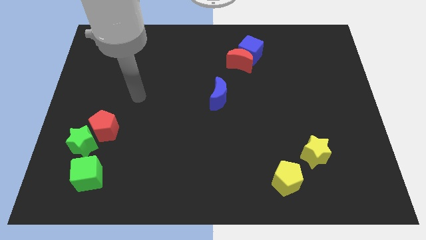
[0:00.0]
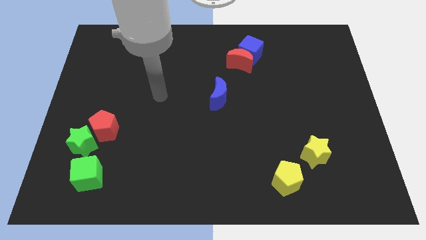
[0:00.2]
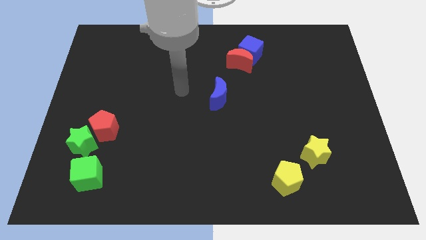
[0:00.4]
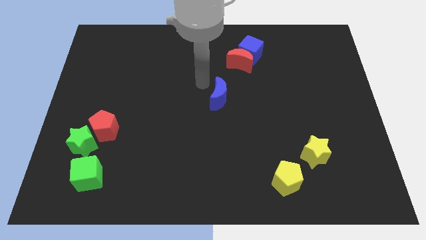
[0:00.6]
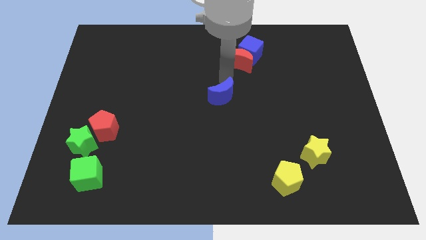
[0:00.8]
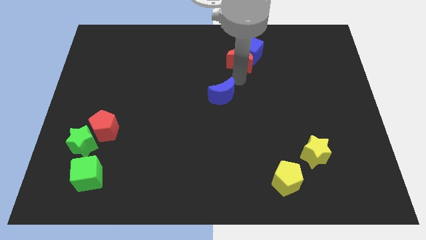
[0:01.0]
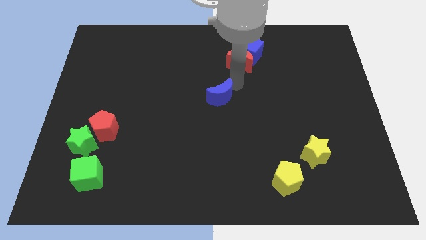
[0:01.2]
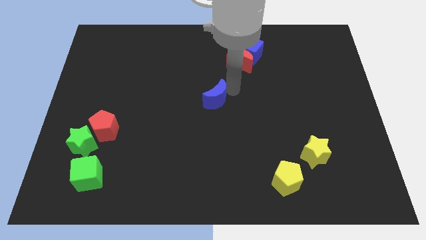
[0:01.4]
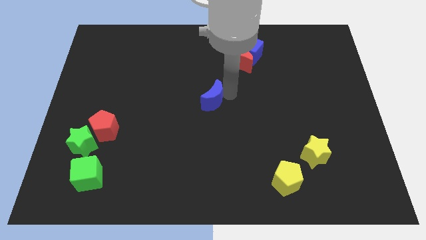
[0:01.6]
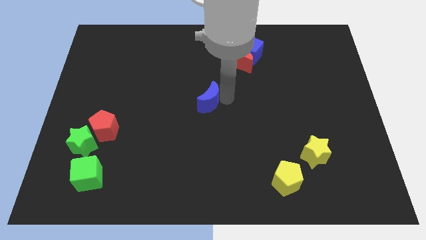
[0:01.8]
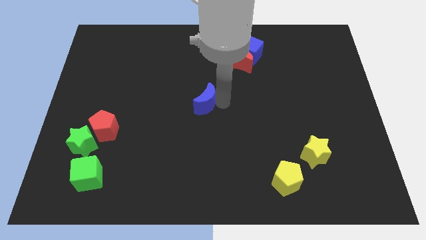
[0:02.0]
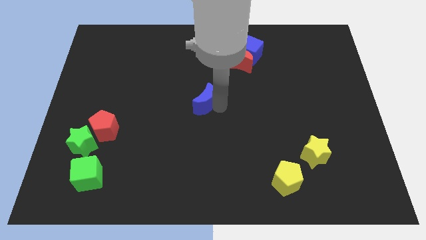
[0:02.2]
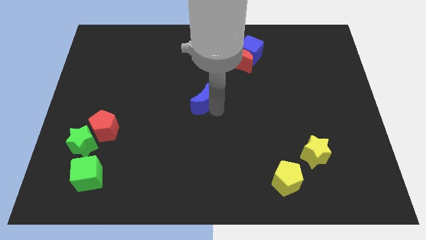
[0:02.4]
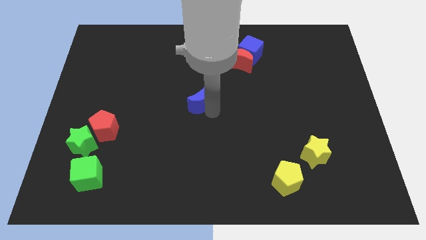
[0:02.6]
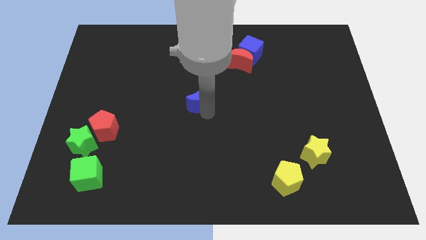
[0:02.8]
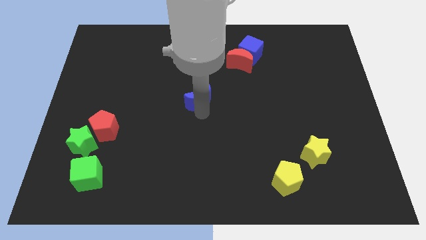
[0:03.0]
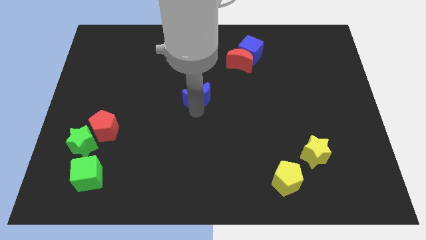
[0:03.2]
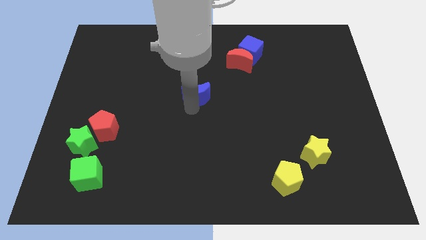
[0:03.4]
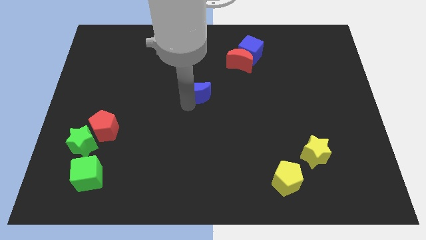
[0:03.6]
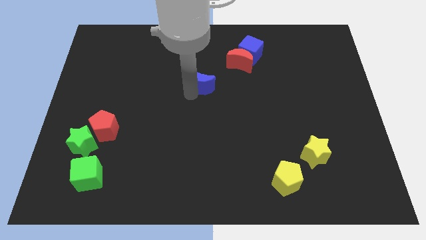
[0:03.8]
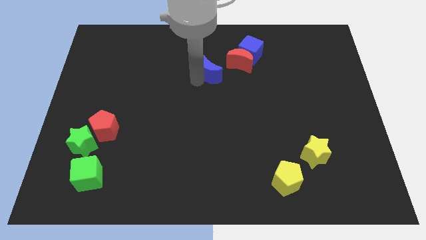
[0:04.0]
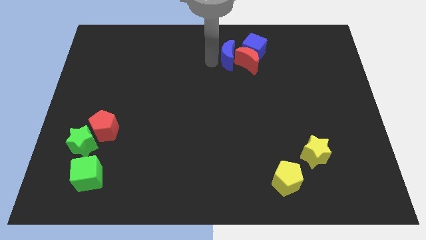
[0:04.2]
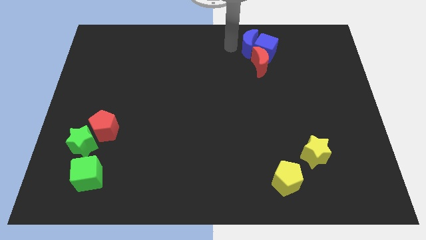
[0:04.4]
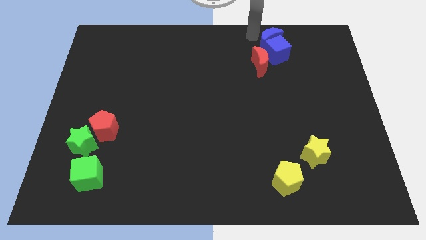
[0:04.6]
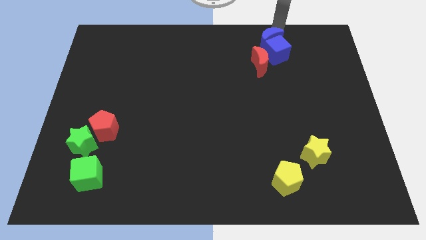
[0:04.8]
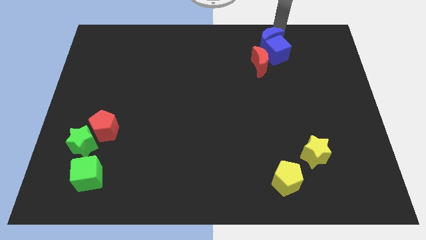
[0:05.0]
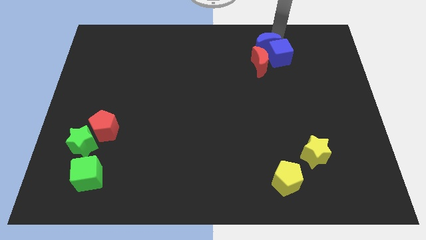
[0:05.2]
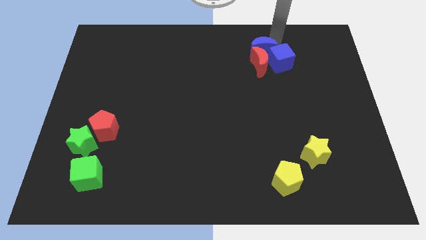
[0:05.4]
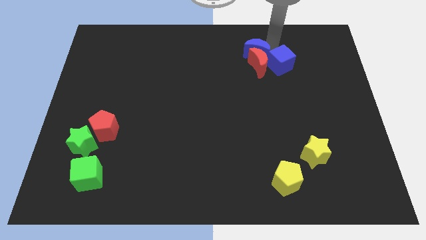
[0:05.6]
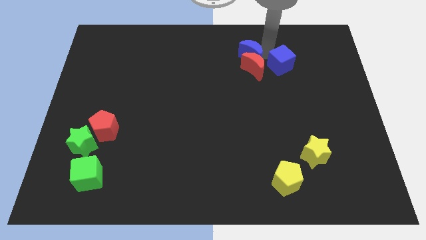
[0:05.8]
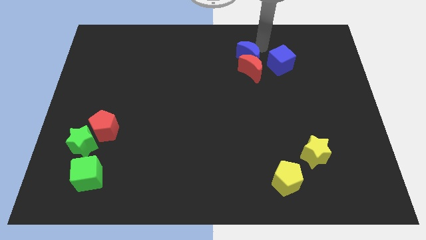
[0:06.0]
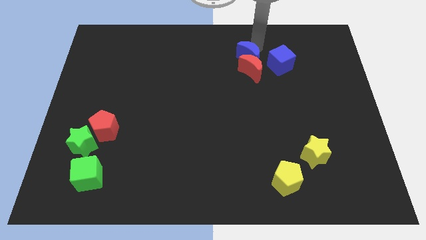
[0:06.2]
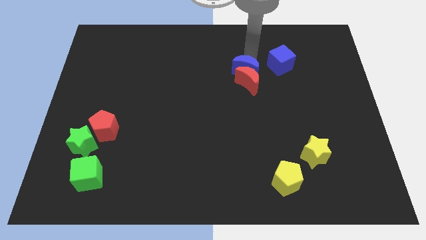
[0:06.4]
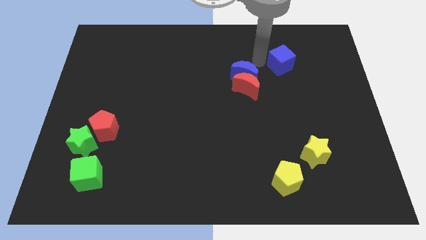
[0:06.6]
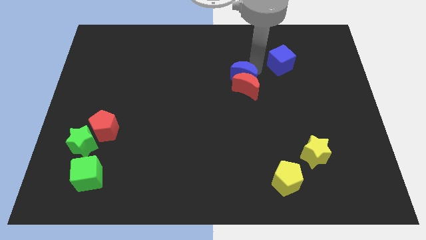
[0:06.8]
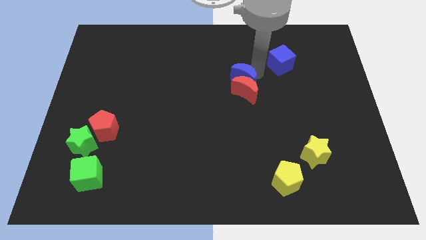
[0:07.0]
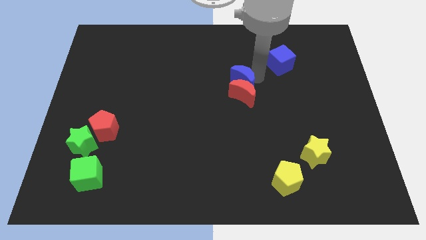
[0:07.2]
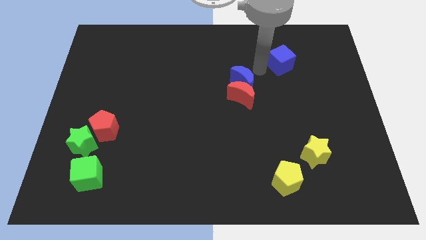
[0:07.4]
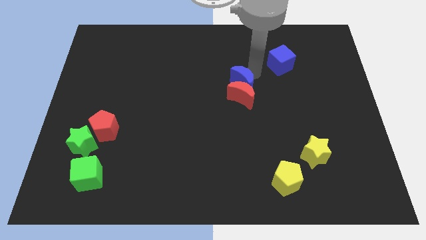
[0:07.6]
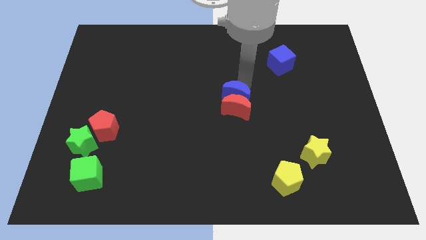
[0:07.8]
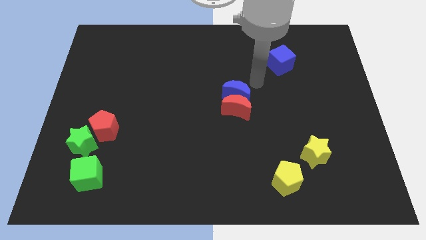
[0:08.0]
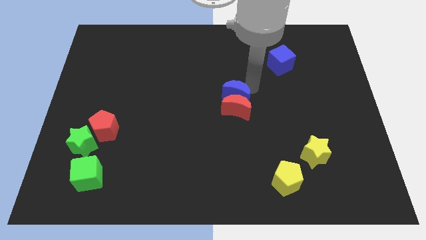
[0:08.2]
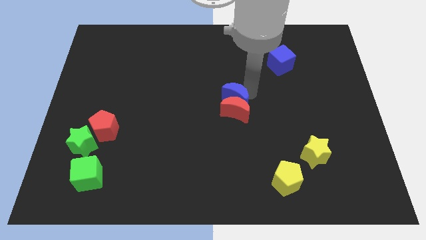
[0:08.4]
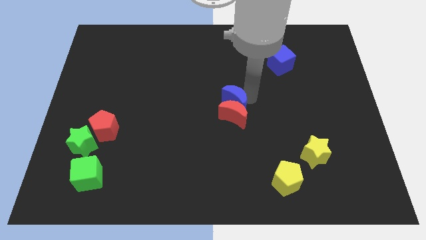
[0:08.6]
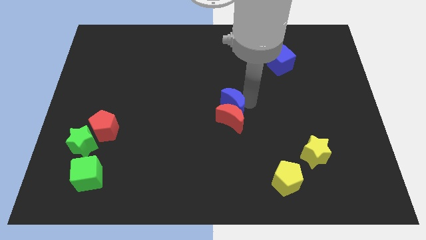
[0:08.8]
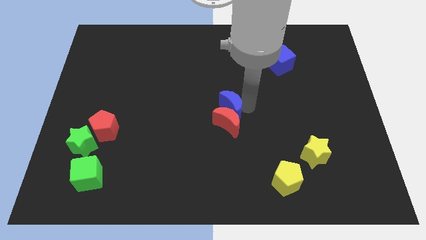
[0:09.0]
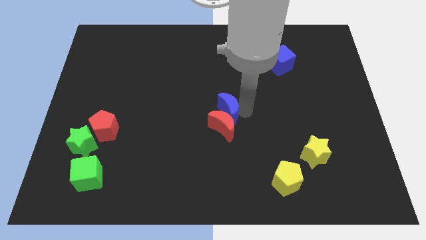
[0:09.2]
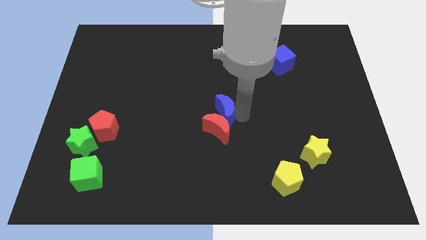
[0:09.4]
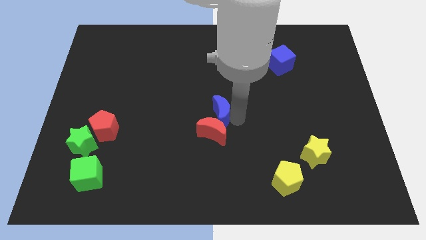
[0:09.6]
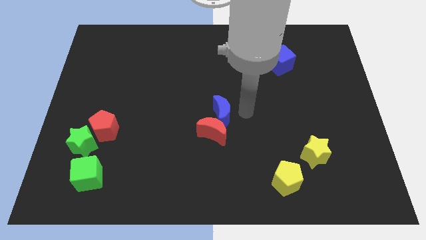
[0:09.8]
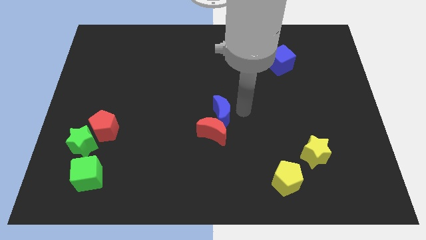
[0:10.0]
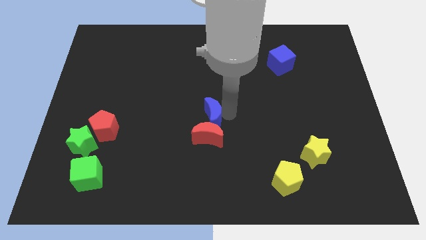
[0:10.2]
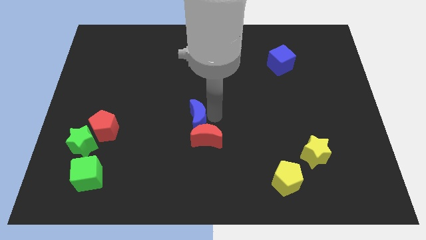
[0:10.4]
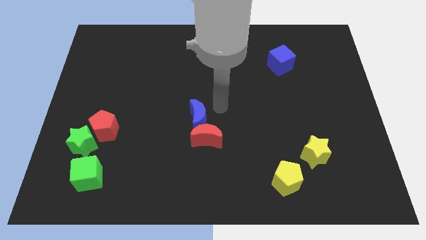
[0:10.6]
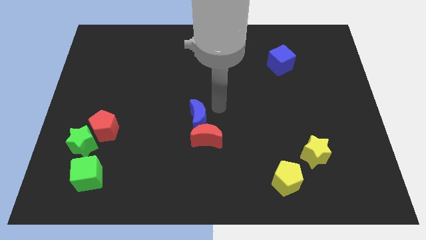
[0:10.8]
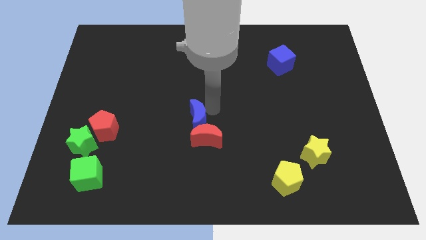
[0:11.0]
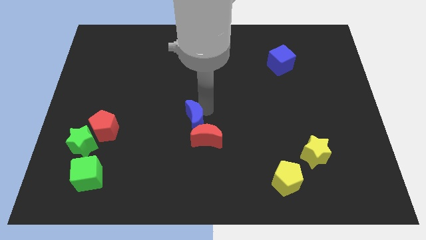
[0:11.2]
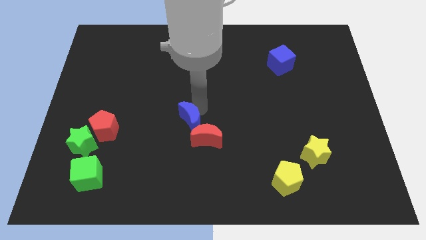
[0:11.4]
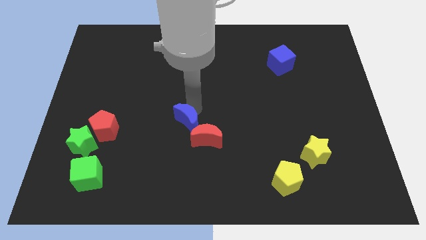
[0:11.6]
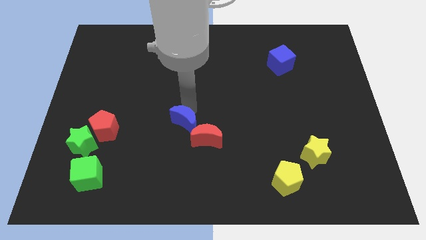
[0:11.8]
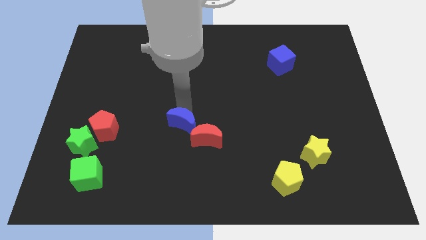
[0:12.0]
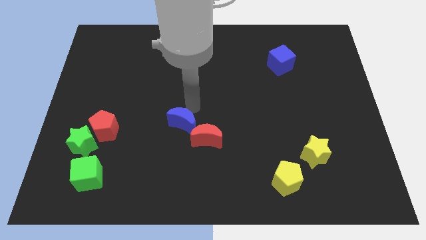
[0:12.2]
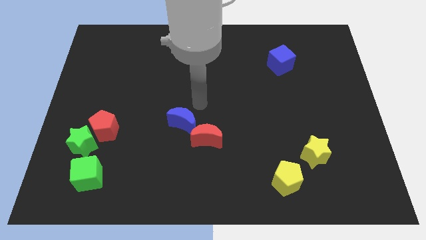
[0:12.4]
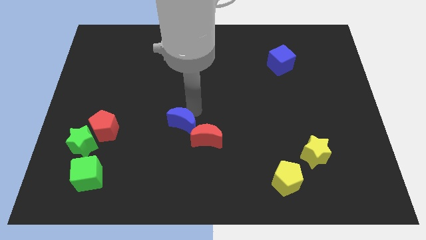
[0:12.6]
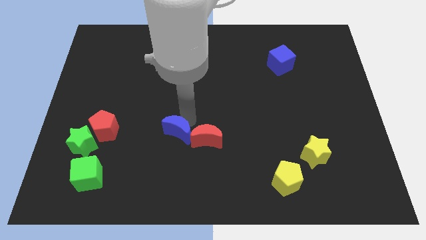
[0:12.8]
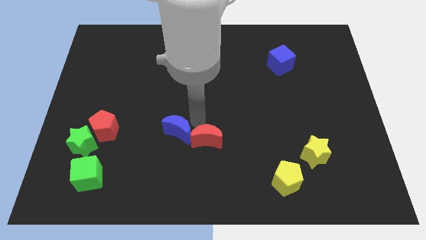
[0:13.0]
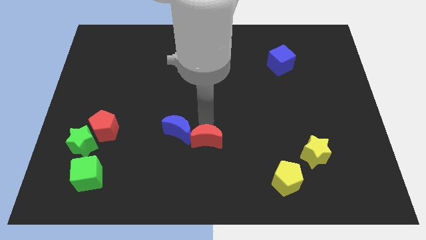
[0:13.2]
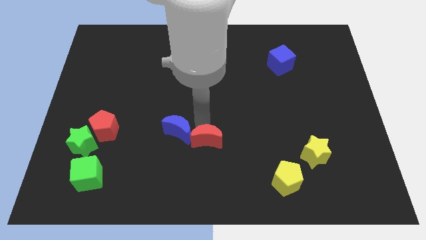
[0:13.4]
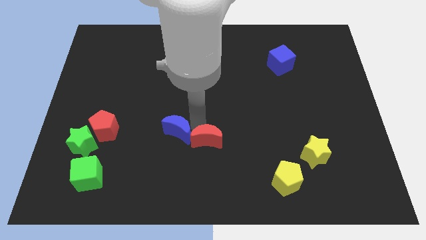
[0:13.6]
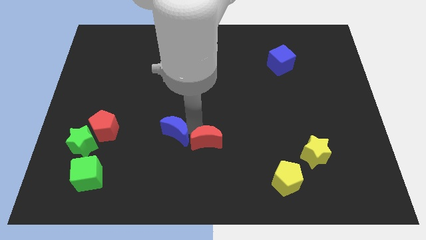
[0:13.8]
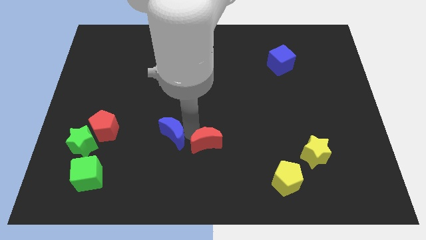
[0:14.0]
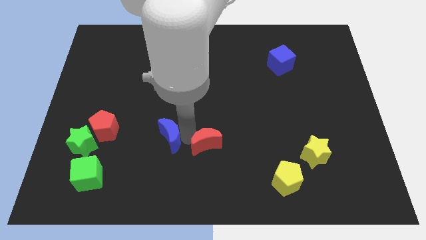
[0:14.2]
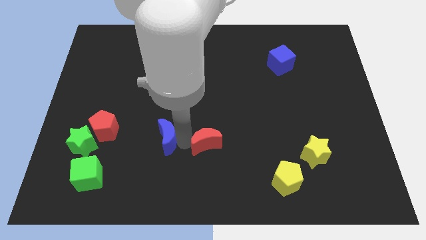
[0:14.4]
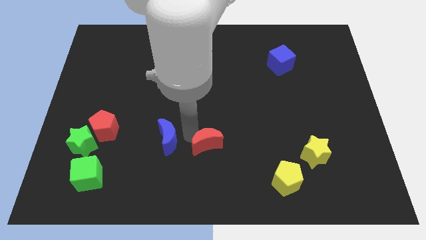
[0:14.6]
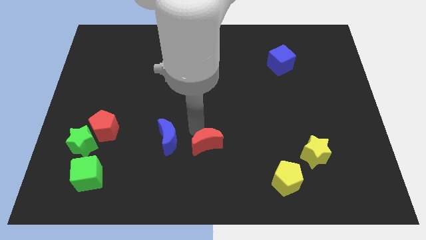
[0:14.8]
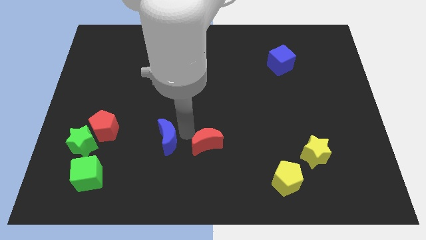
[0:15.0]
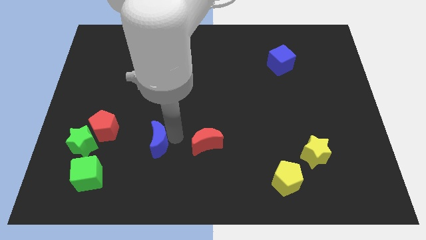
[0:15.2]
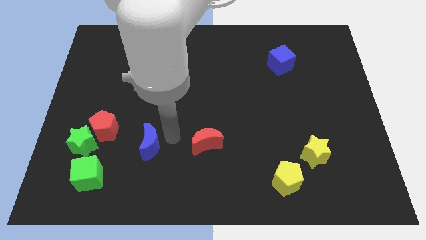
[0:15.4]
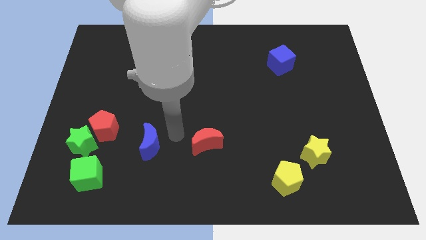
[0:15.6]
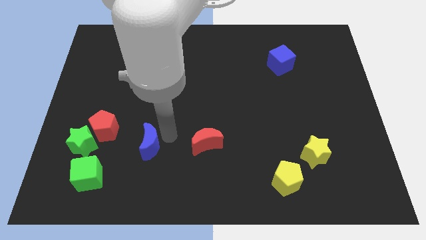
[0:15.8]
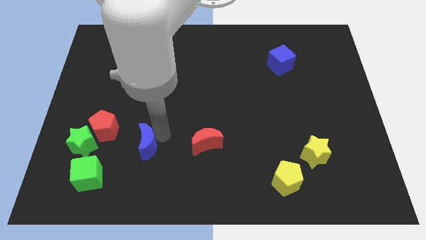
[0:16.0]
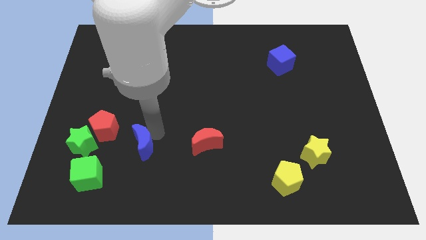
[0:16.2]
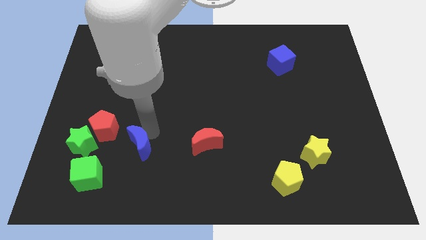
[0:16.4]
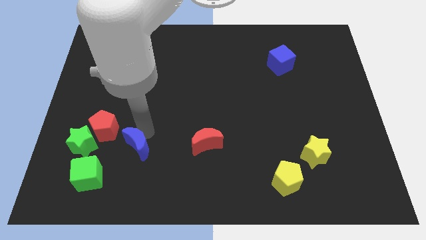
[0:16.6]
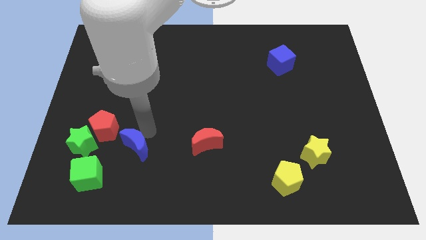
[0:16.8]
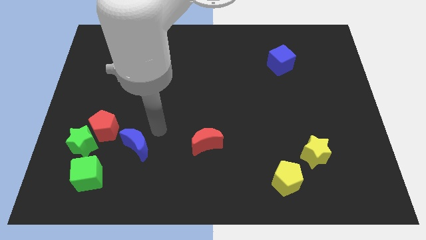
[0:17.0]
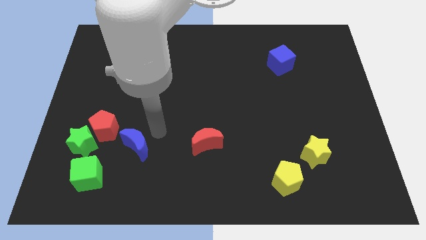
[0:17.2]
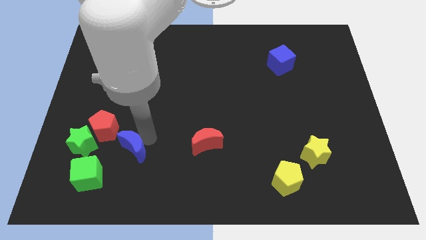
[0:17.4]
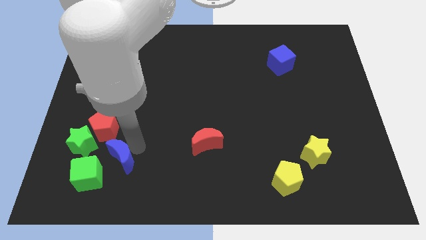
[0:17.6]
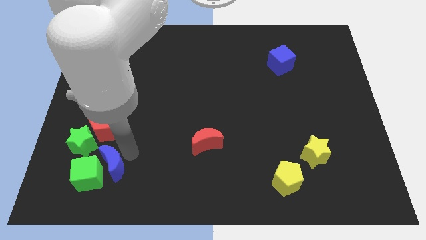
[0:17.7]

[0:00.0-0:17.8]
put the blue moon towards the green cube
